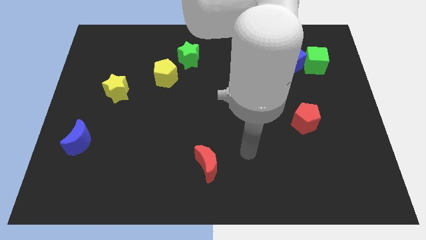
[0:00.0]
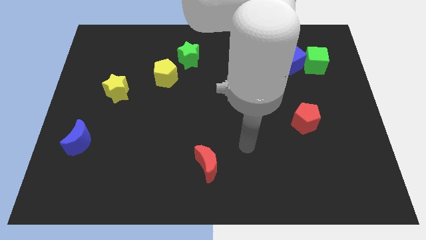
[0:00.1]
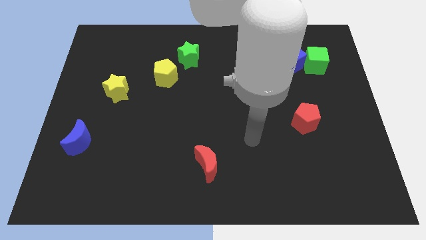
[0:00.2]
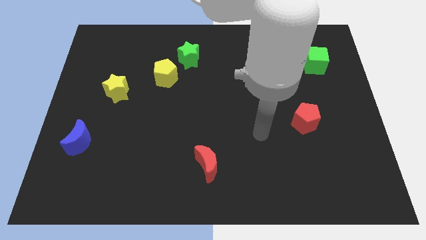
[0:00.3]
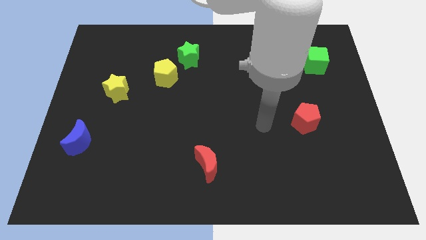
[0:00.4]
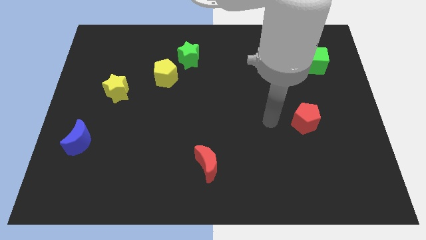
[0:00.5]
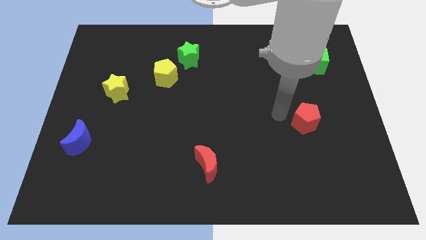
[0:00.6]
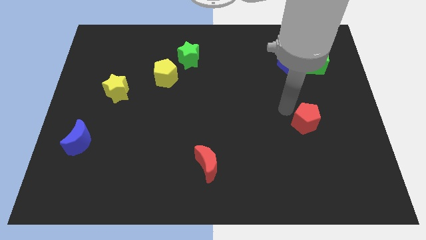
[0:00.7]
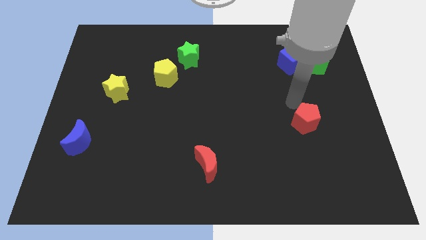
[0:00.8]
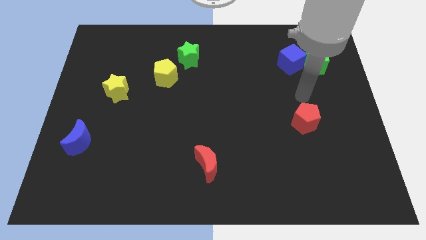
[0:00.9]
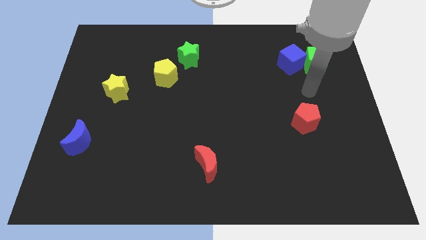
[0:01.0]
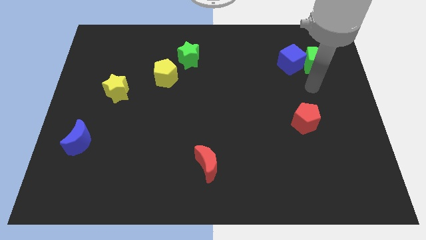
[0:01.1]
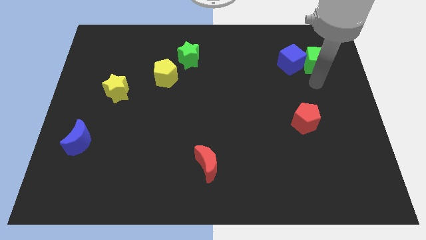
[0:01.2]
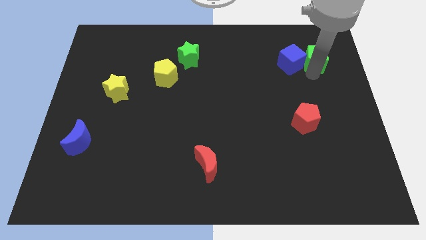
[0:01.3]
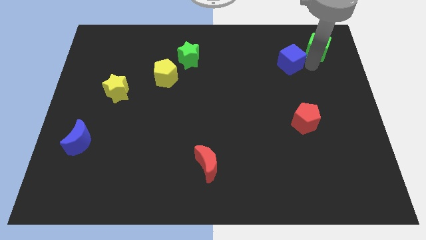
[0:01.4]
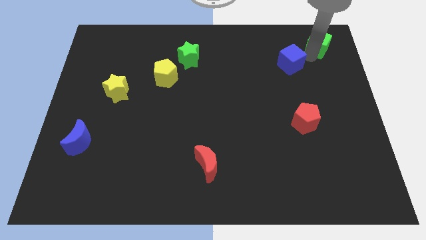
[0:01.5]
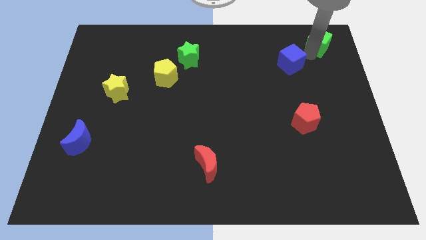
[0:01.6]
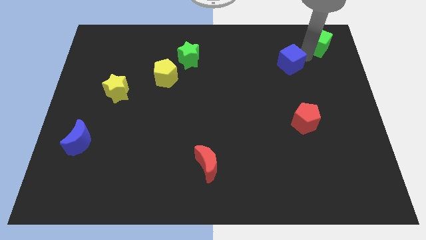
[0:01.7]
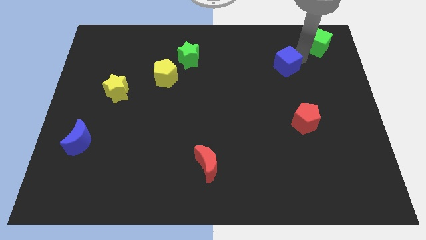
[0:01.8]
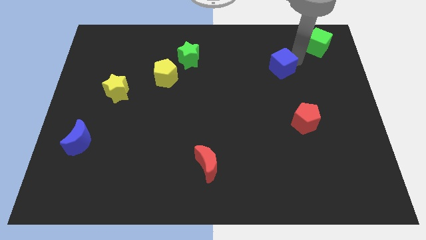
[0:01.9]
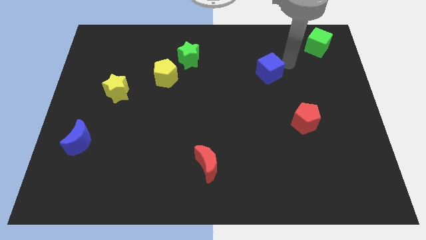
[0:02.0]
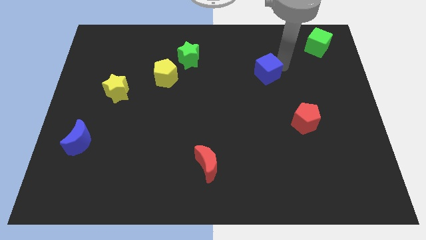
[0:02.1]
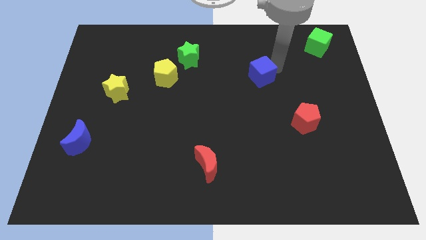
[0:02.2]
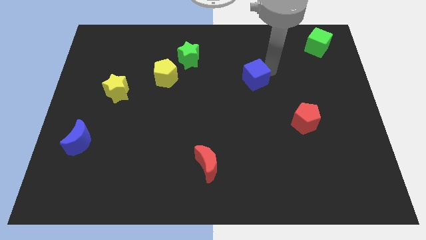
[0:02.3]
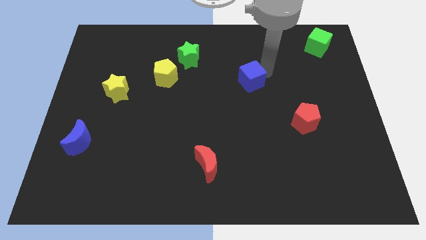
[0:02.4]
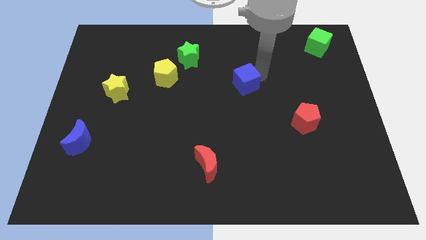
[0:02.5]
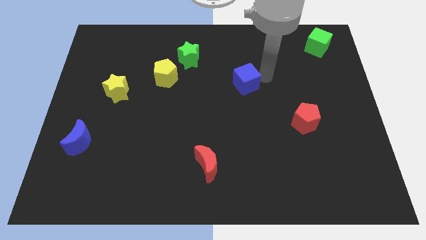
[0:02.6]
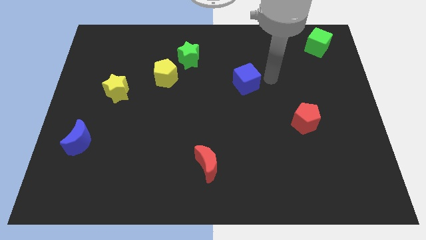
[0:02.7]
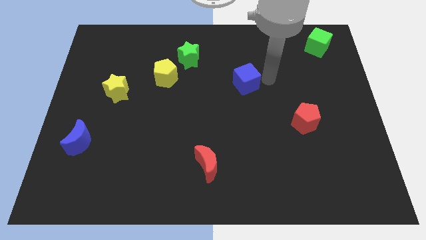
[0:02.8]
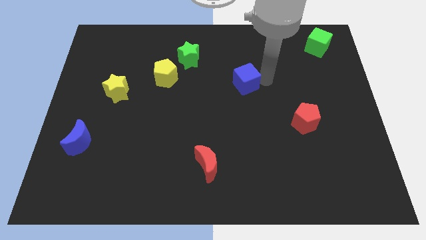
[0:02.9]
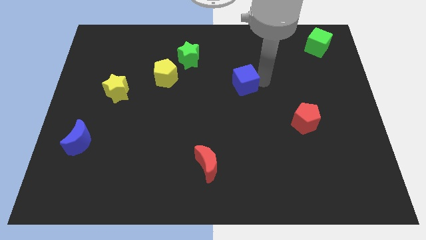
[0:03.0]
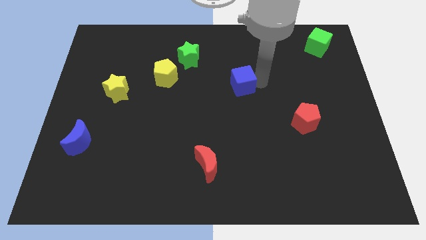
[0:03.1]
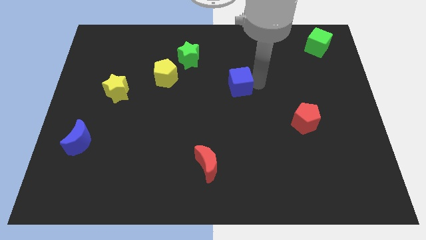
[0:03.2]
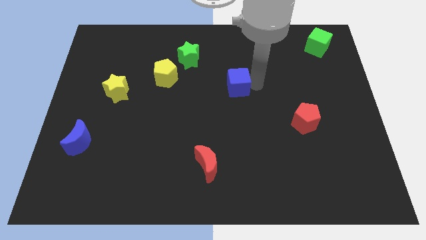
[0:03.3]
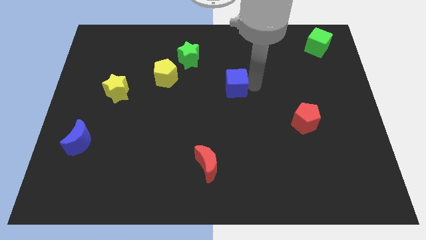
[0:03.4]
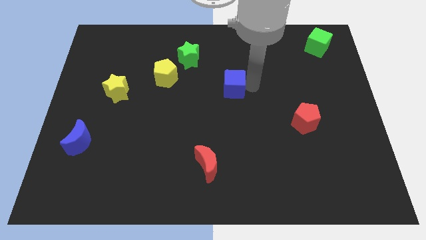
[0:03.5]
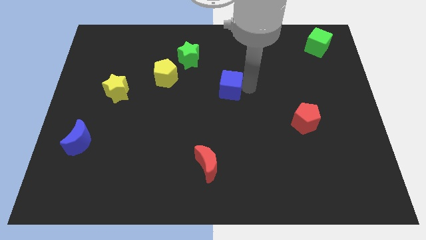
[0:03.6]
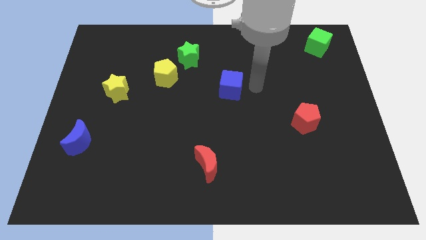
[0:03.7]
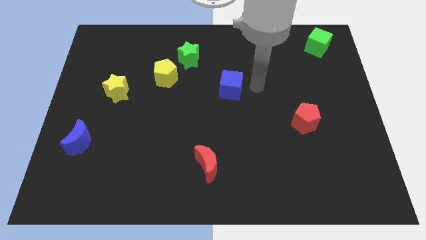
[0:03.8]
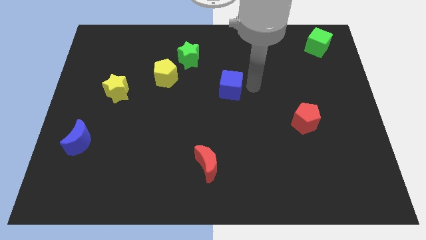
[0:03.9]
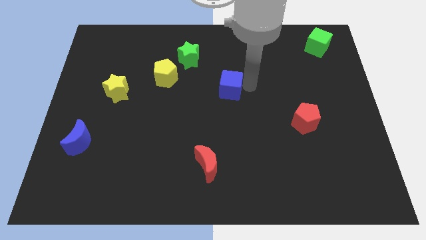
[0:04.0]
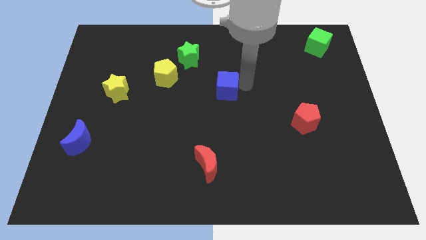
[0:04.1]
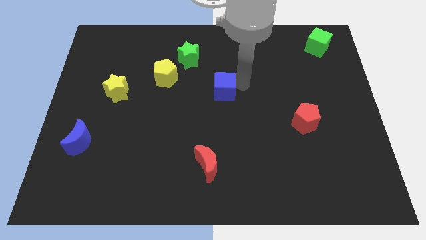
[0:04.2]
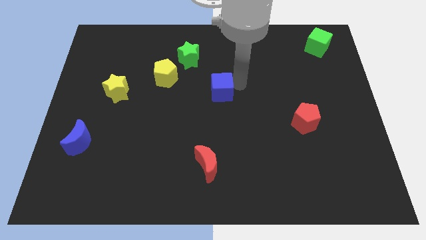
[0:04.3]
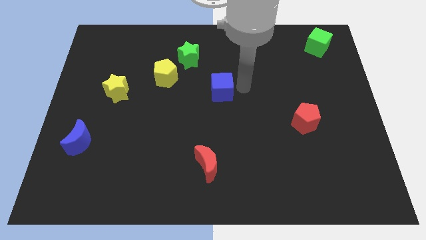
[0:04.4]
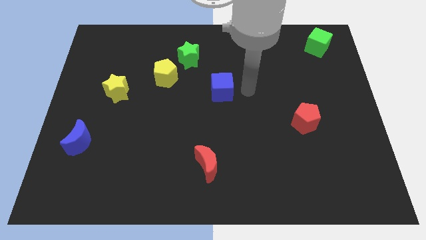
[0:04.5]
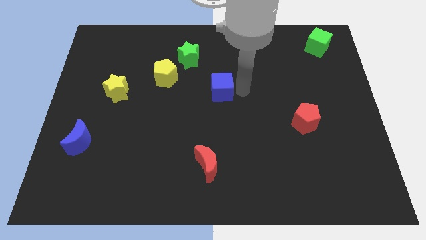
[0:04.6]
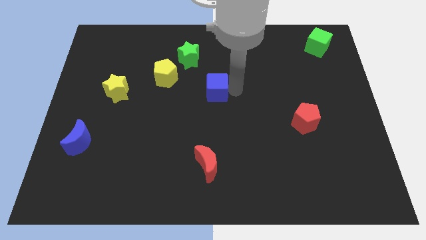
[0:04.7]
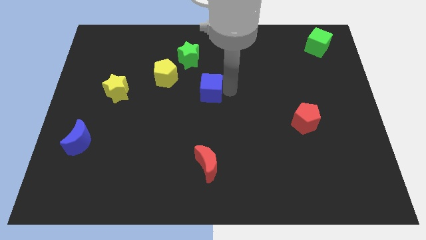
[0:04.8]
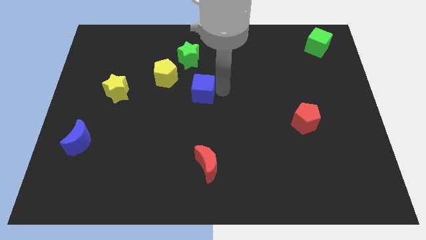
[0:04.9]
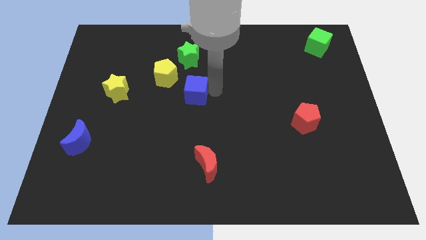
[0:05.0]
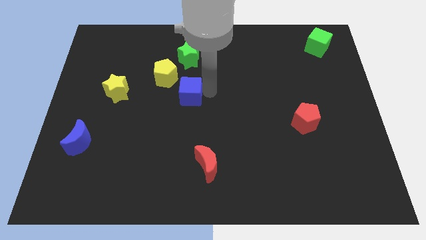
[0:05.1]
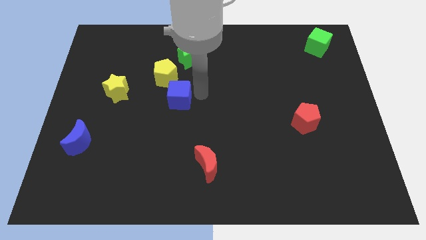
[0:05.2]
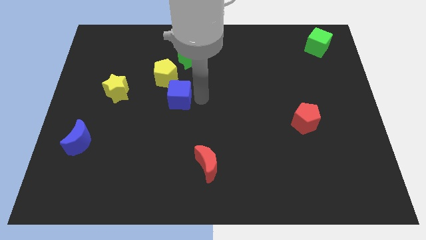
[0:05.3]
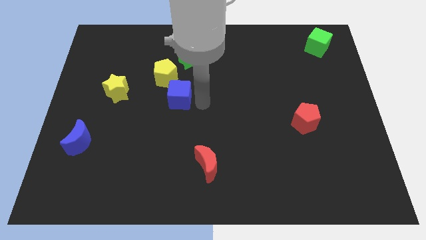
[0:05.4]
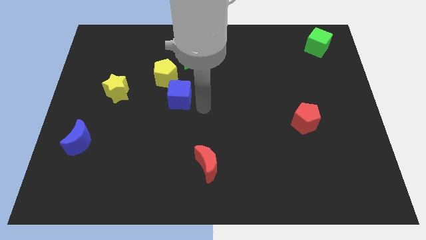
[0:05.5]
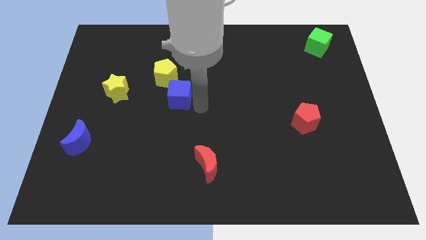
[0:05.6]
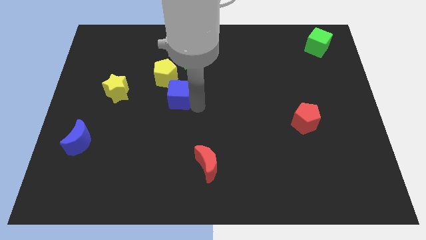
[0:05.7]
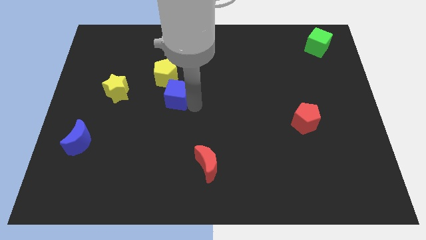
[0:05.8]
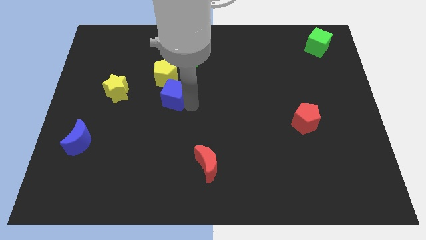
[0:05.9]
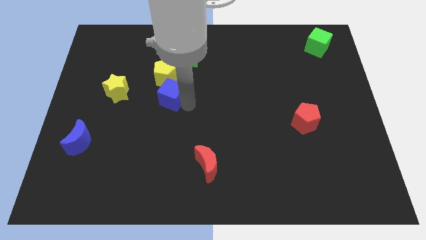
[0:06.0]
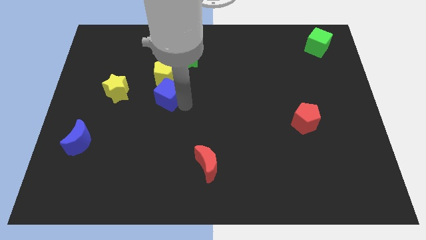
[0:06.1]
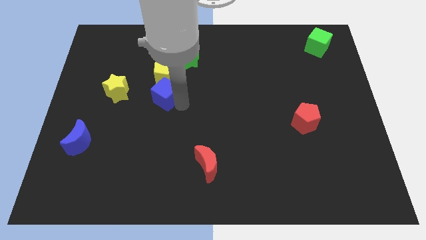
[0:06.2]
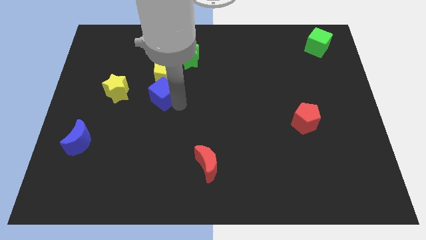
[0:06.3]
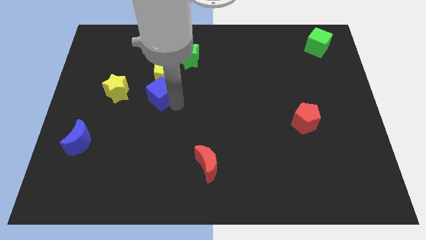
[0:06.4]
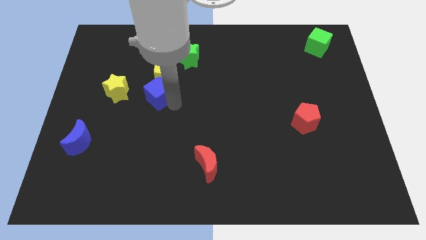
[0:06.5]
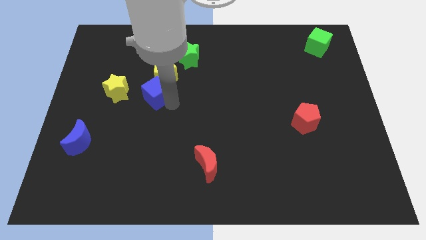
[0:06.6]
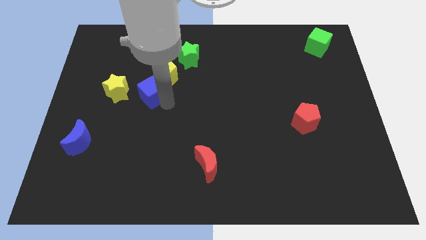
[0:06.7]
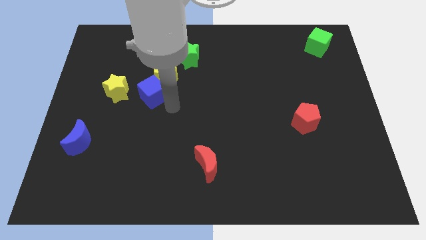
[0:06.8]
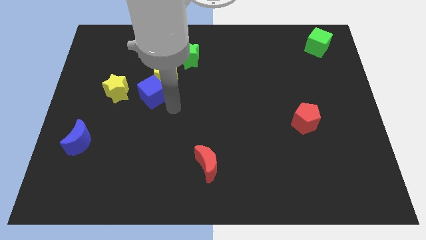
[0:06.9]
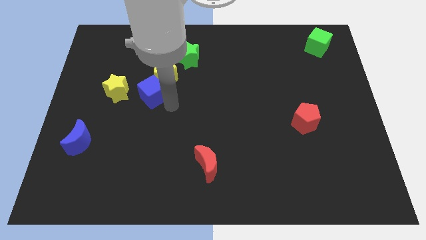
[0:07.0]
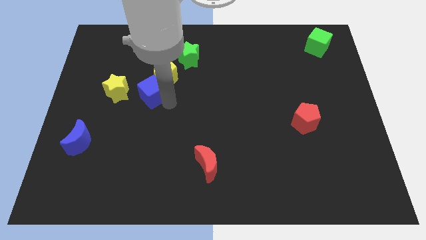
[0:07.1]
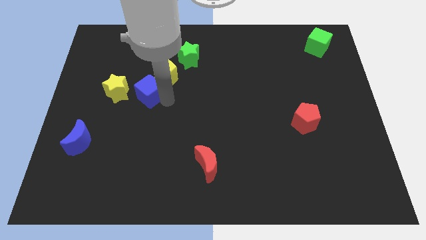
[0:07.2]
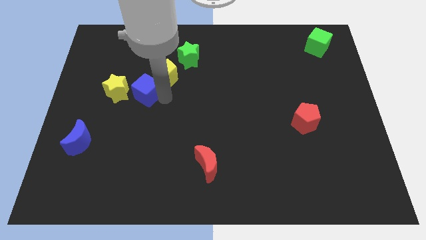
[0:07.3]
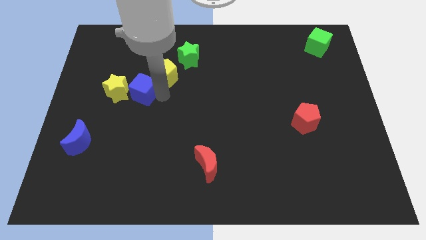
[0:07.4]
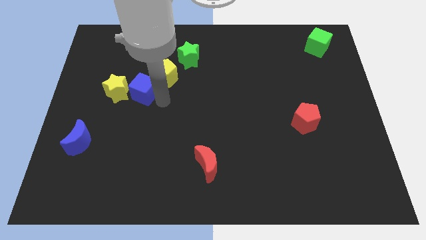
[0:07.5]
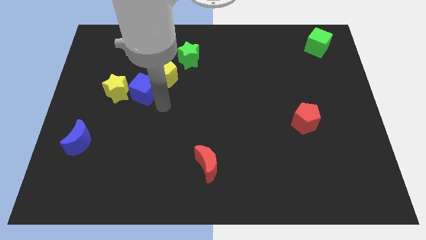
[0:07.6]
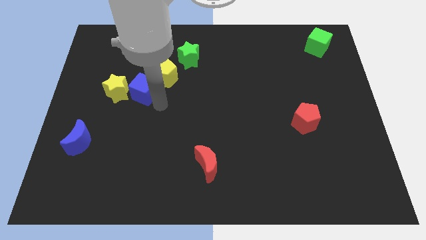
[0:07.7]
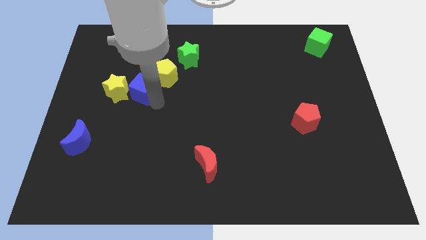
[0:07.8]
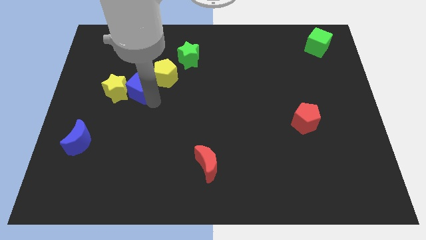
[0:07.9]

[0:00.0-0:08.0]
push the blue cube just left of the yellow pentagon
